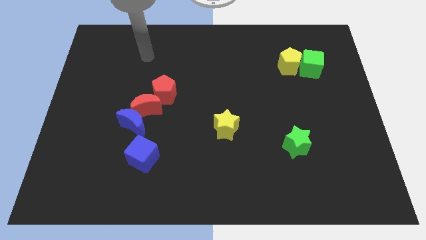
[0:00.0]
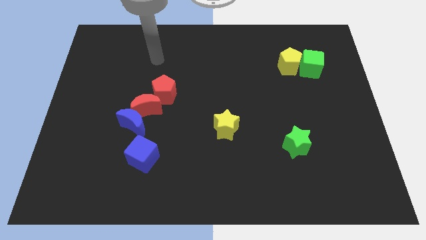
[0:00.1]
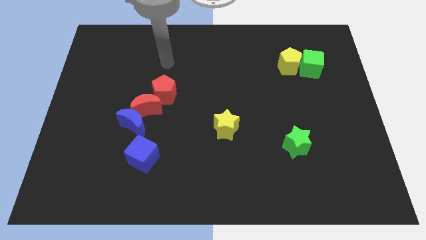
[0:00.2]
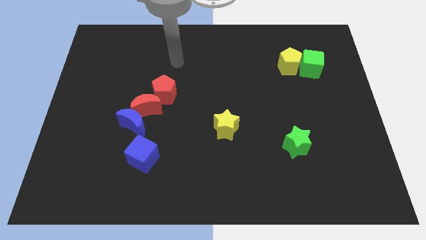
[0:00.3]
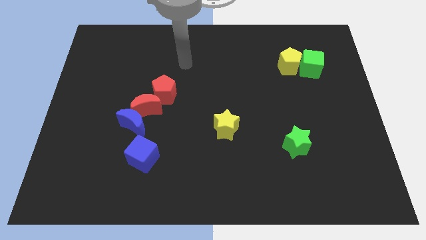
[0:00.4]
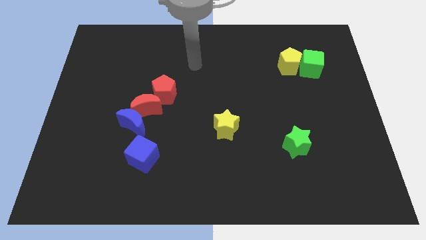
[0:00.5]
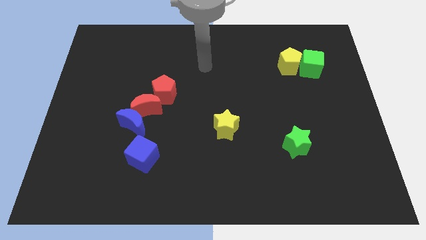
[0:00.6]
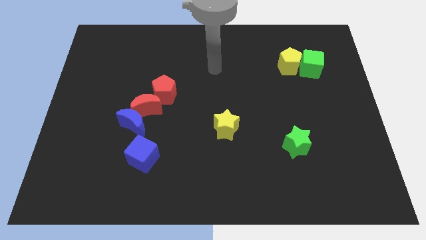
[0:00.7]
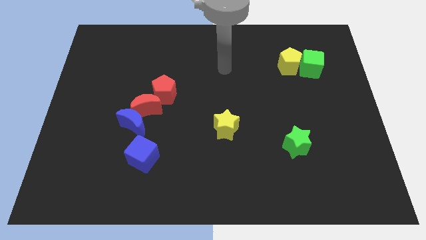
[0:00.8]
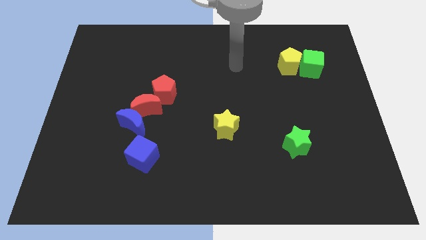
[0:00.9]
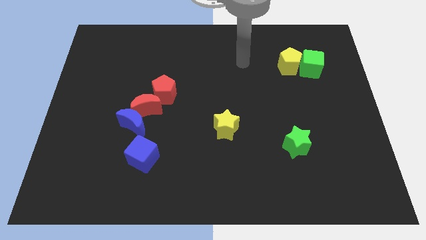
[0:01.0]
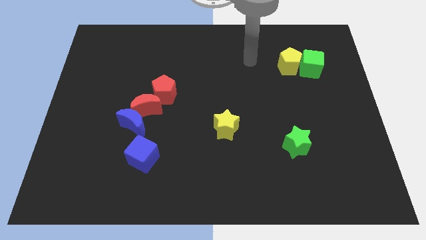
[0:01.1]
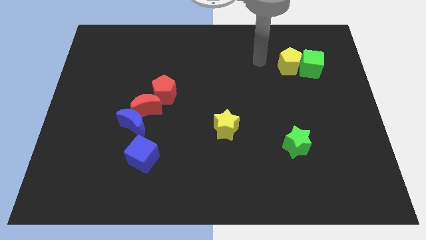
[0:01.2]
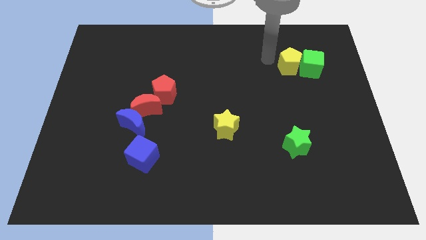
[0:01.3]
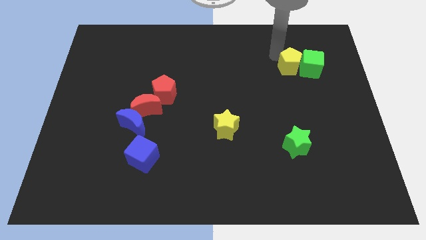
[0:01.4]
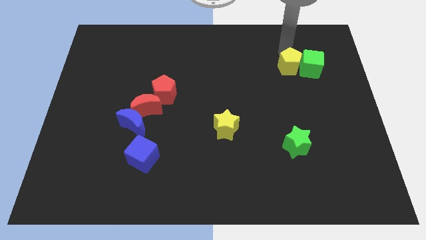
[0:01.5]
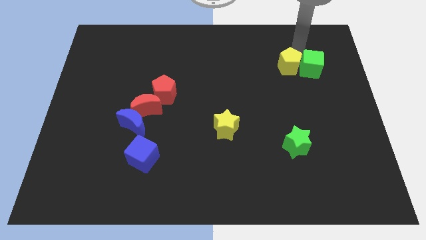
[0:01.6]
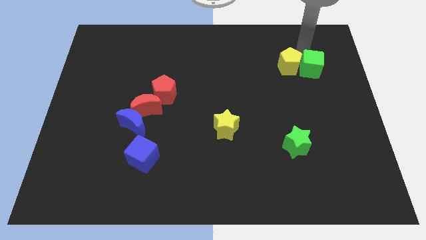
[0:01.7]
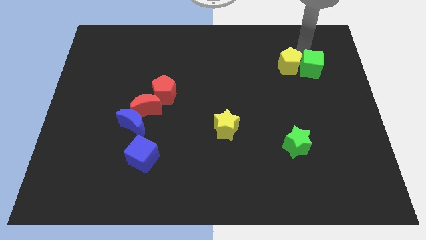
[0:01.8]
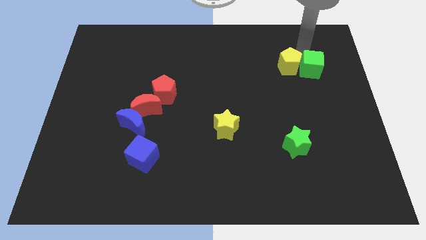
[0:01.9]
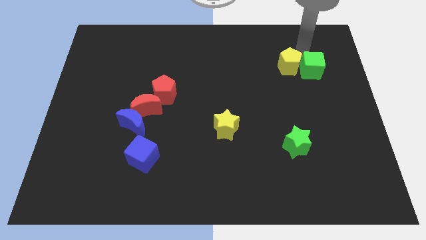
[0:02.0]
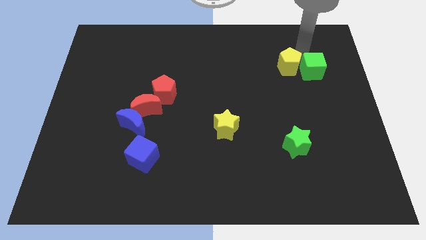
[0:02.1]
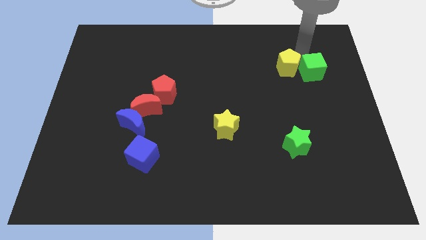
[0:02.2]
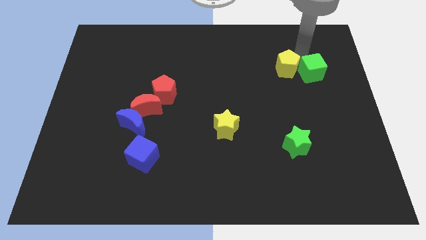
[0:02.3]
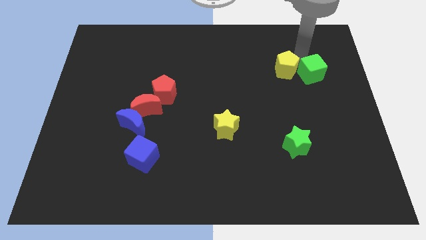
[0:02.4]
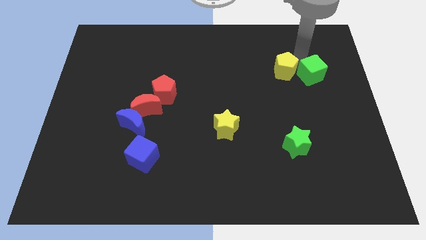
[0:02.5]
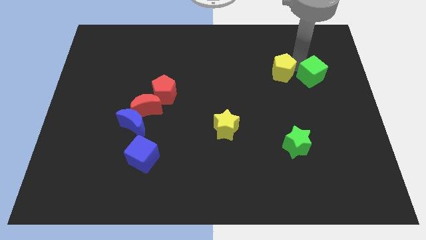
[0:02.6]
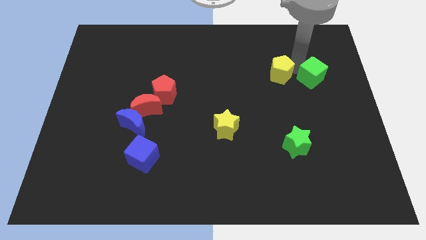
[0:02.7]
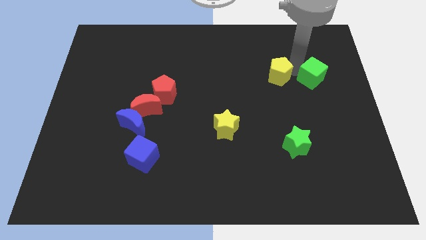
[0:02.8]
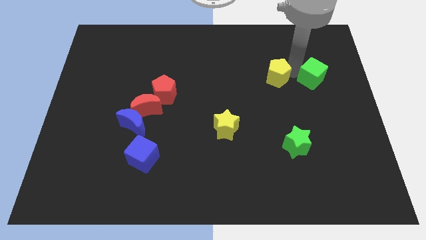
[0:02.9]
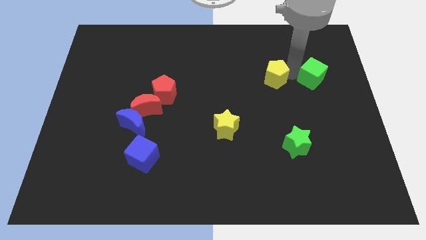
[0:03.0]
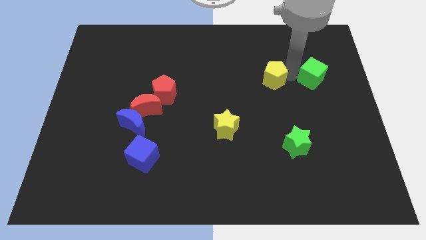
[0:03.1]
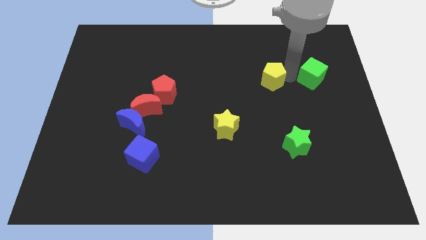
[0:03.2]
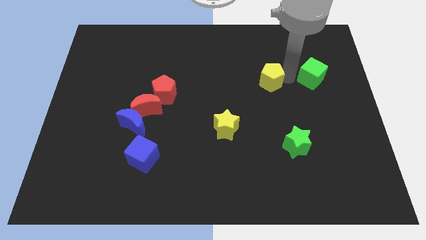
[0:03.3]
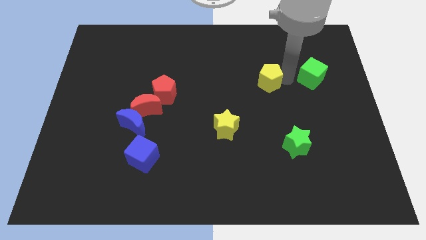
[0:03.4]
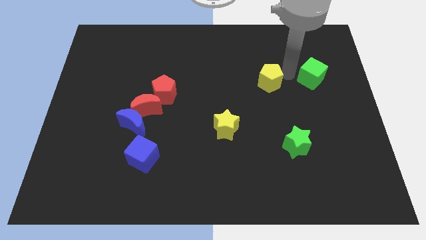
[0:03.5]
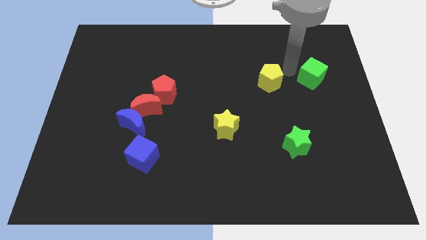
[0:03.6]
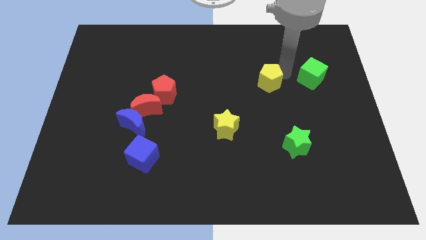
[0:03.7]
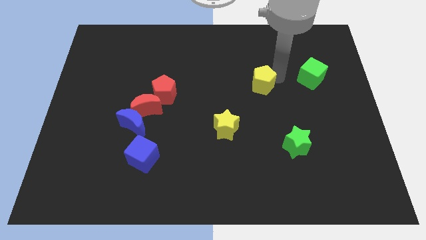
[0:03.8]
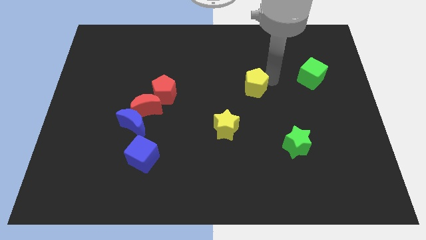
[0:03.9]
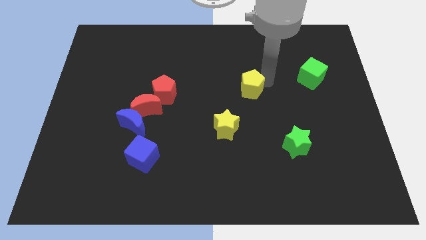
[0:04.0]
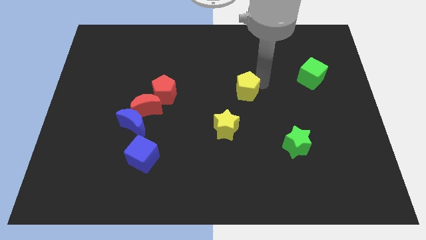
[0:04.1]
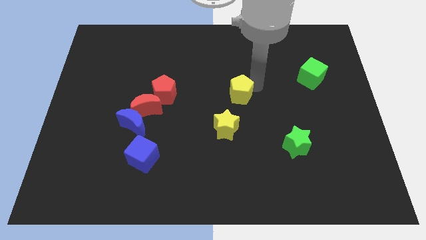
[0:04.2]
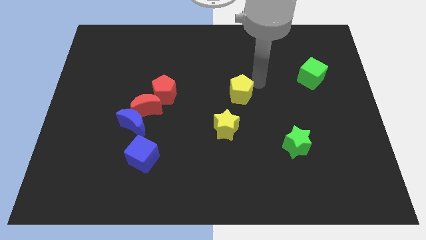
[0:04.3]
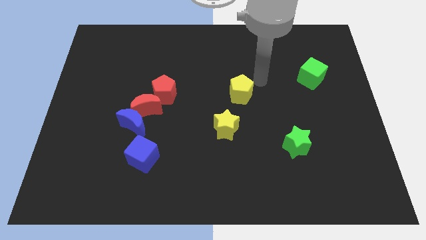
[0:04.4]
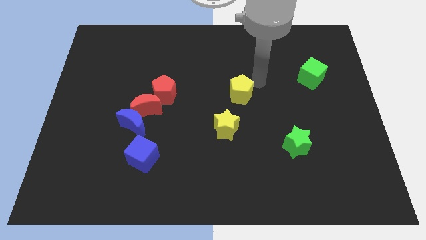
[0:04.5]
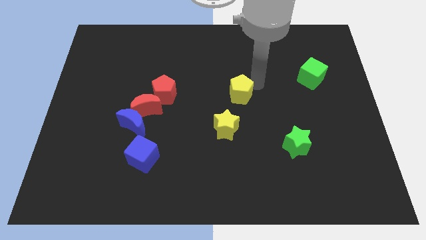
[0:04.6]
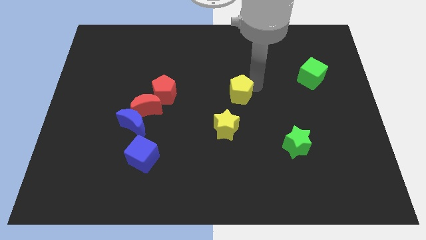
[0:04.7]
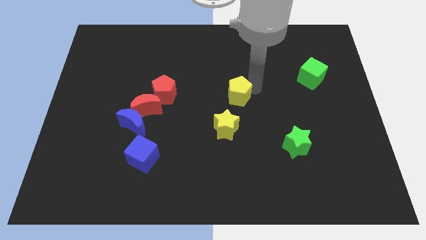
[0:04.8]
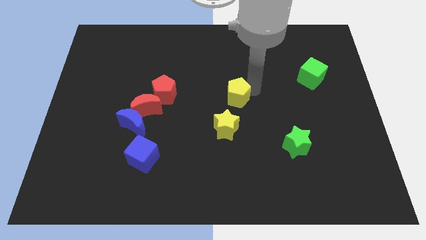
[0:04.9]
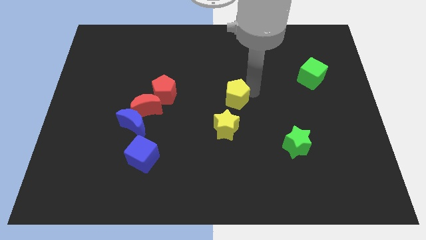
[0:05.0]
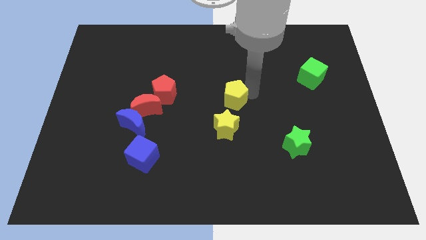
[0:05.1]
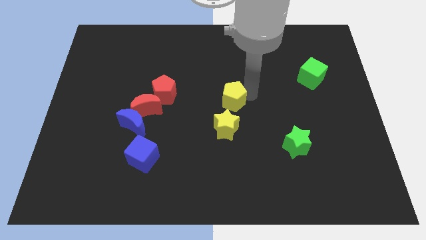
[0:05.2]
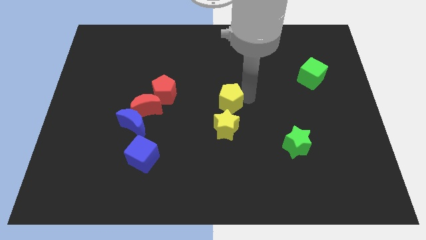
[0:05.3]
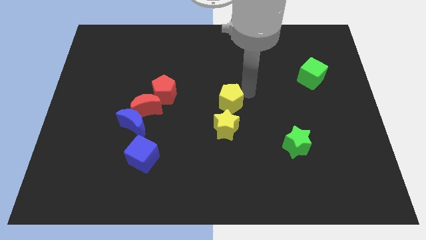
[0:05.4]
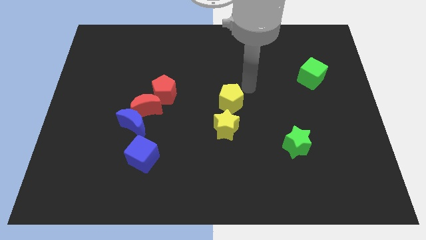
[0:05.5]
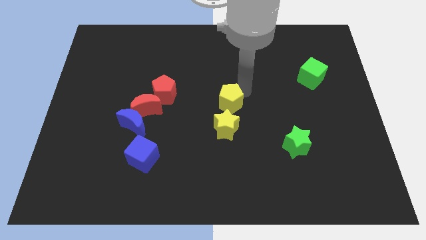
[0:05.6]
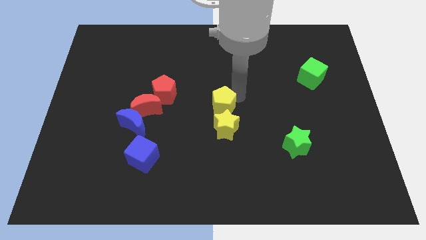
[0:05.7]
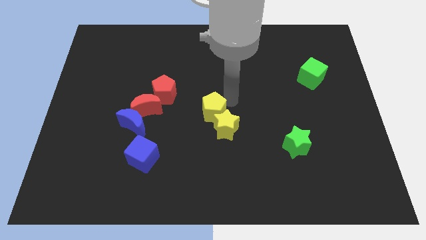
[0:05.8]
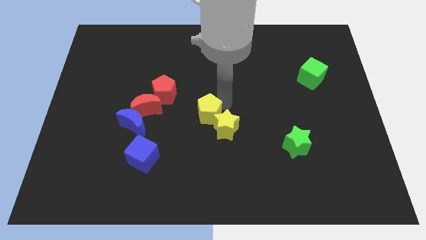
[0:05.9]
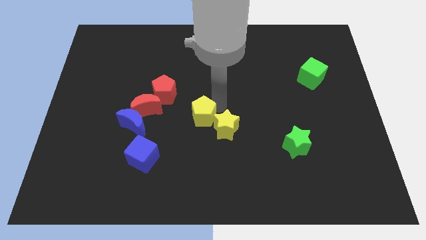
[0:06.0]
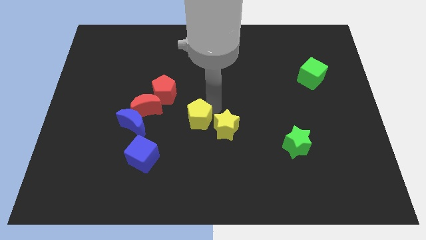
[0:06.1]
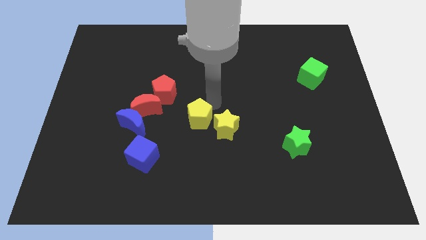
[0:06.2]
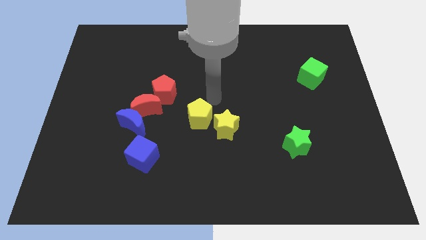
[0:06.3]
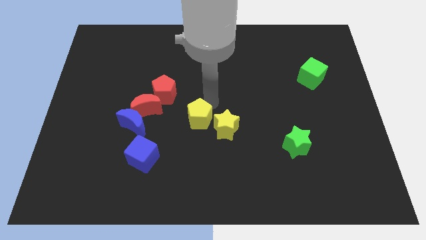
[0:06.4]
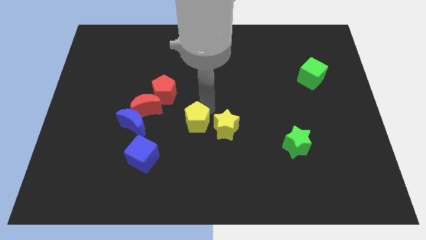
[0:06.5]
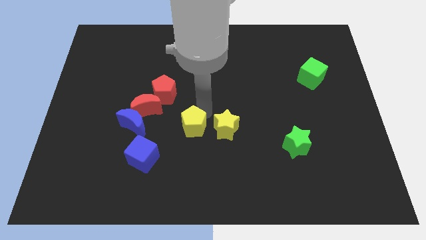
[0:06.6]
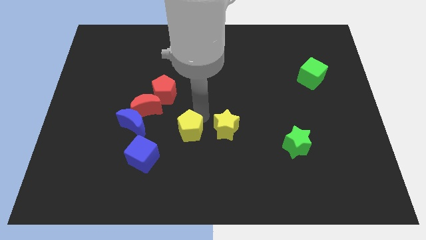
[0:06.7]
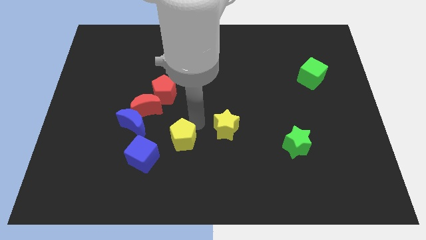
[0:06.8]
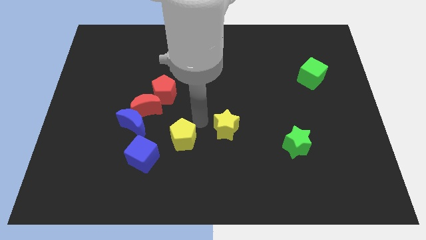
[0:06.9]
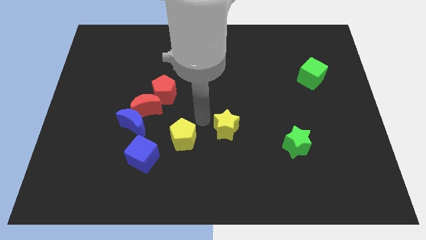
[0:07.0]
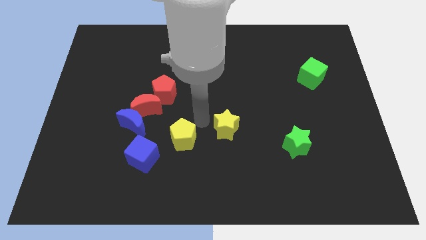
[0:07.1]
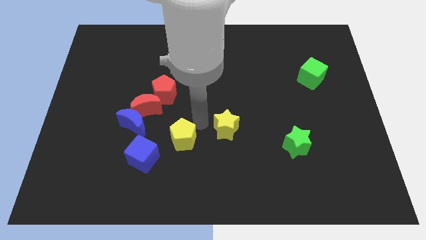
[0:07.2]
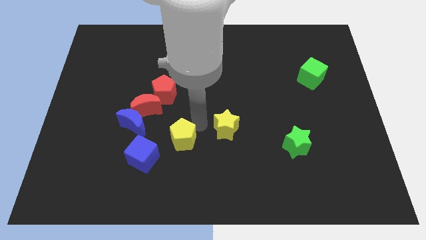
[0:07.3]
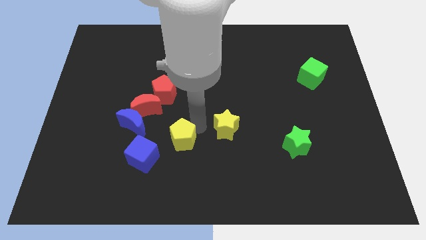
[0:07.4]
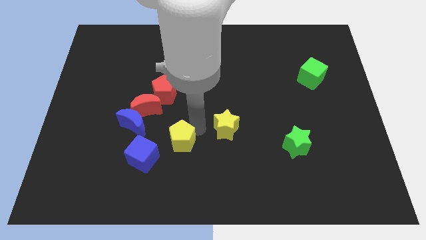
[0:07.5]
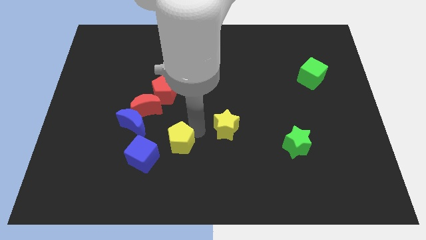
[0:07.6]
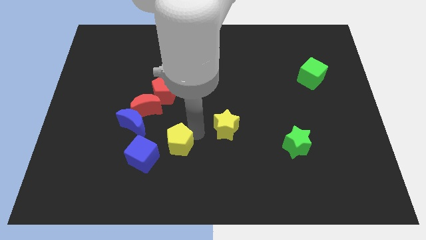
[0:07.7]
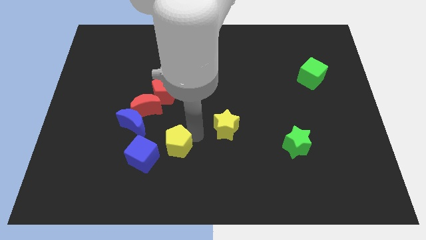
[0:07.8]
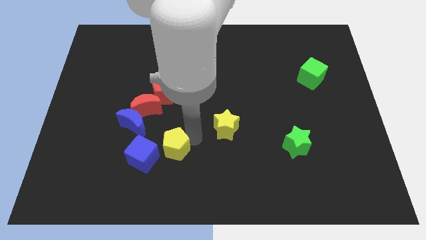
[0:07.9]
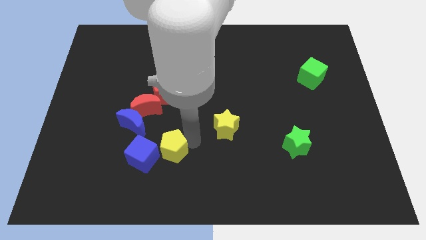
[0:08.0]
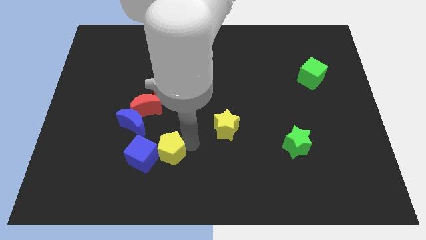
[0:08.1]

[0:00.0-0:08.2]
put the yellow pentagon close to the blue cube
